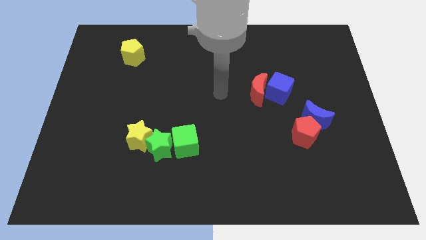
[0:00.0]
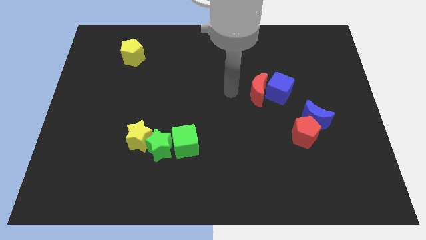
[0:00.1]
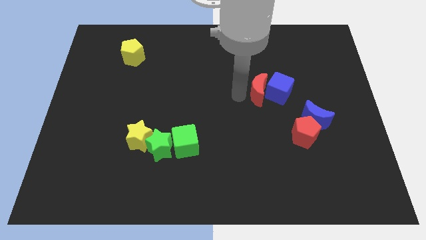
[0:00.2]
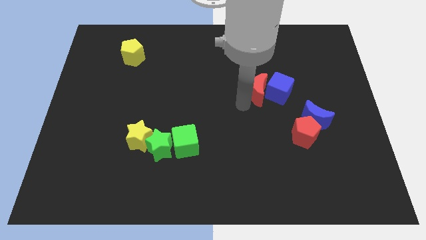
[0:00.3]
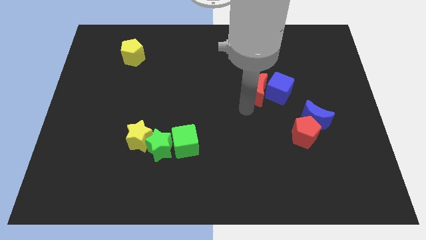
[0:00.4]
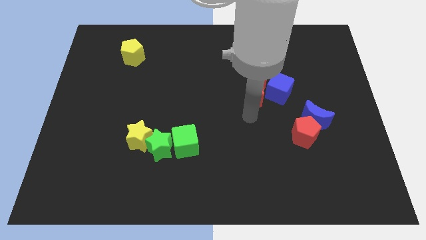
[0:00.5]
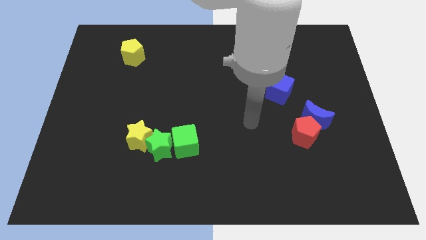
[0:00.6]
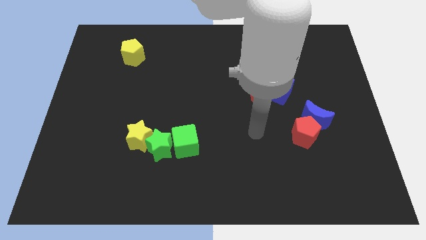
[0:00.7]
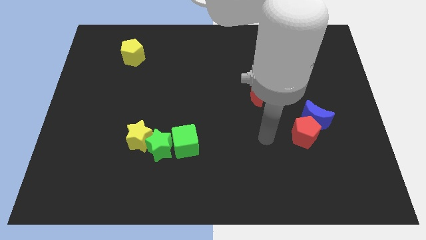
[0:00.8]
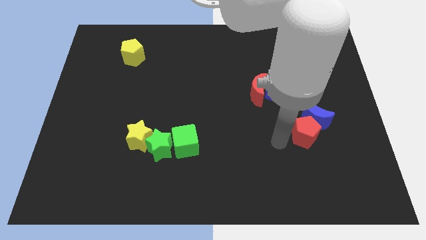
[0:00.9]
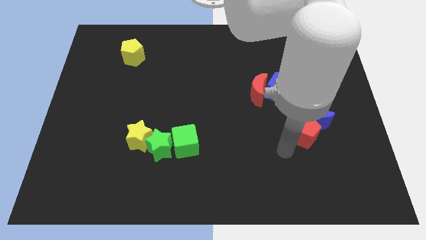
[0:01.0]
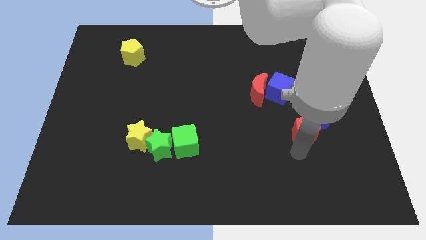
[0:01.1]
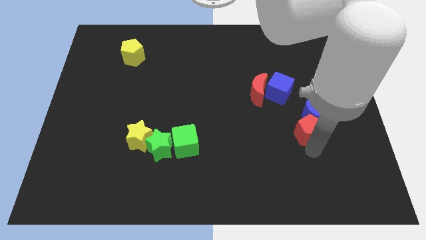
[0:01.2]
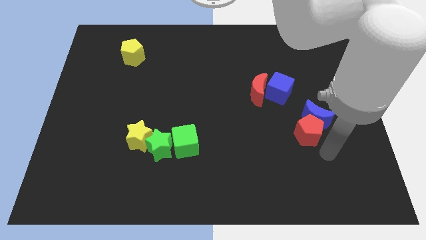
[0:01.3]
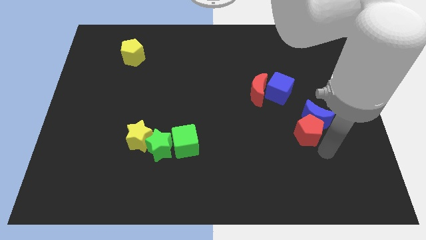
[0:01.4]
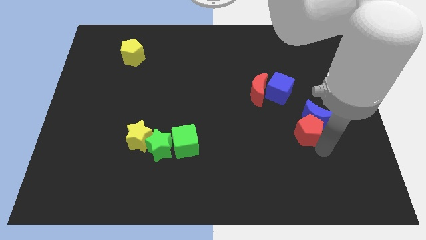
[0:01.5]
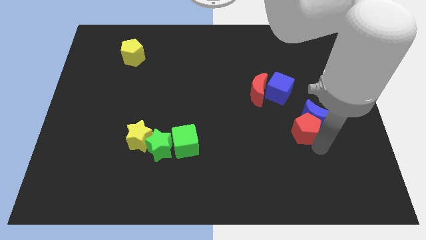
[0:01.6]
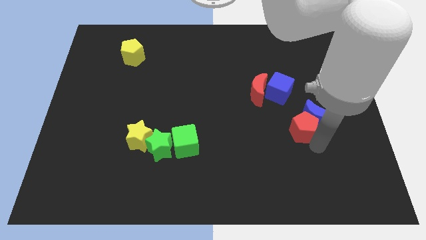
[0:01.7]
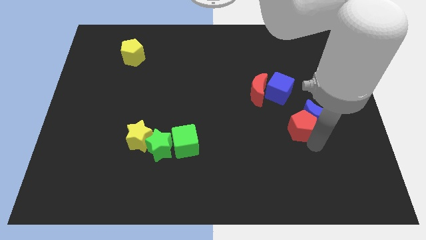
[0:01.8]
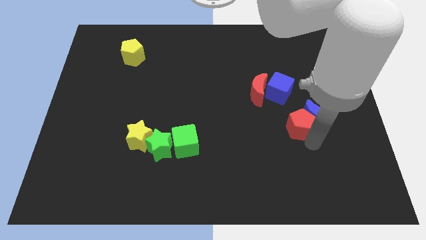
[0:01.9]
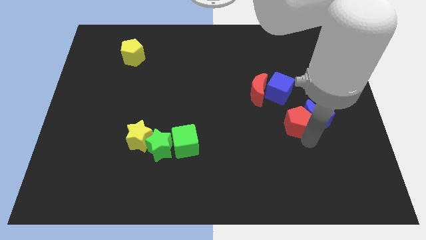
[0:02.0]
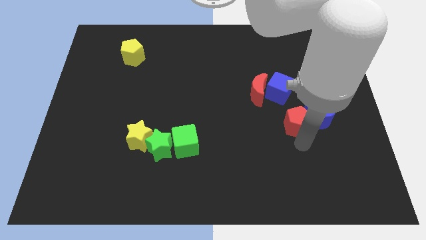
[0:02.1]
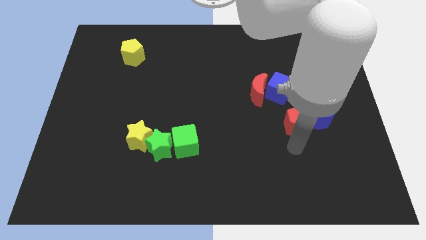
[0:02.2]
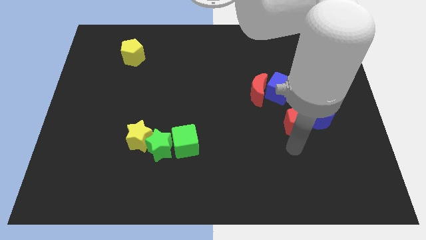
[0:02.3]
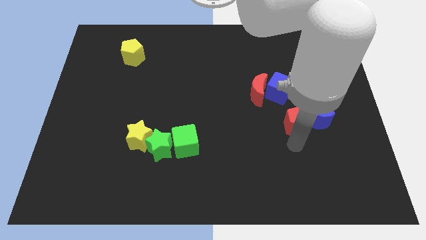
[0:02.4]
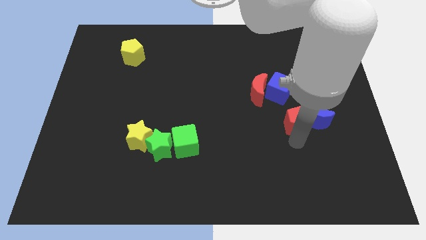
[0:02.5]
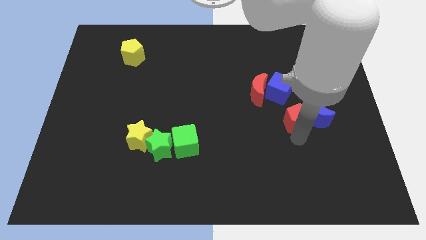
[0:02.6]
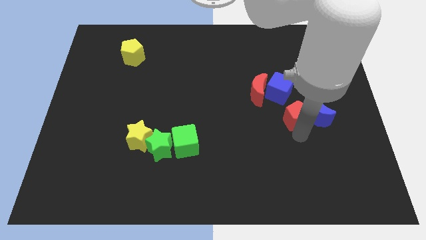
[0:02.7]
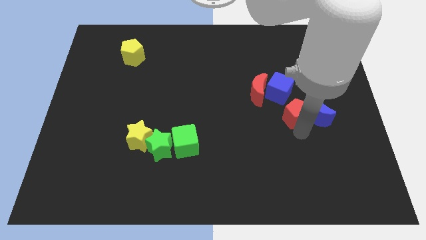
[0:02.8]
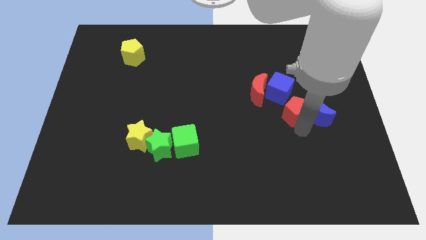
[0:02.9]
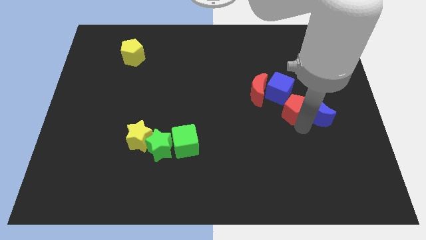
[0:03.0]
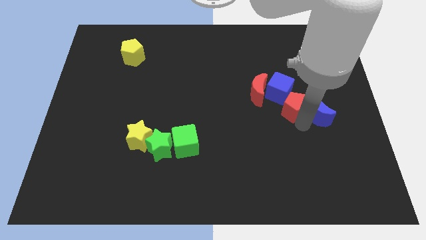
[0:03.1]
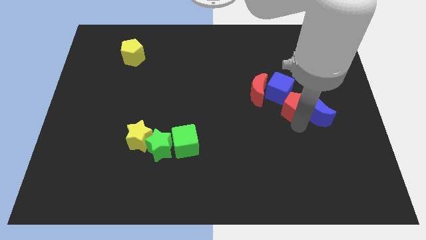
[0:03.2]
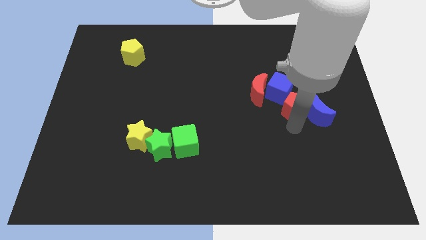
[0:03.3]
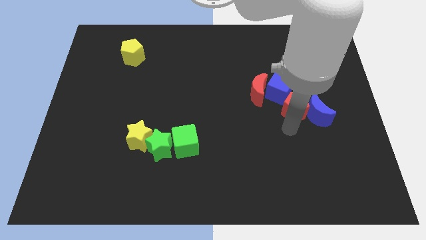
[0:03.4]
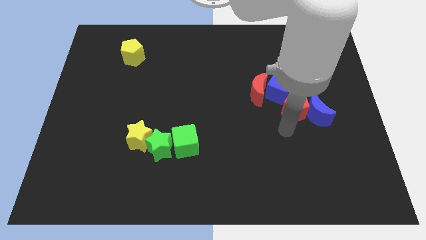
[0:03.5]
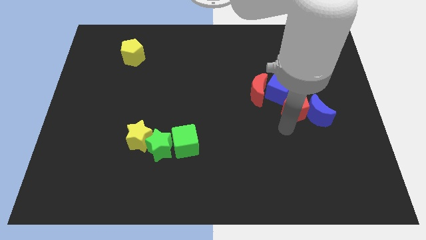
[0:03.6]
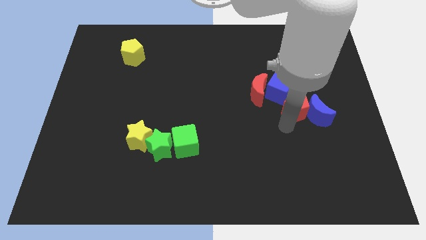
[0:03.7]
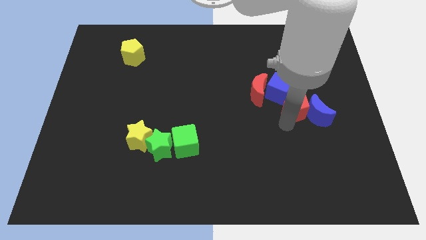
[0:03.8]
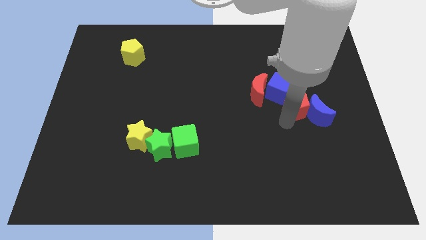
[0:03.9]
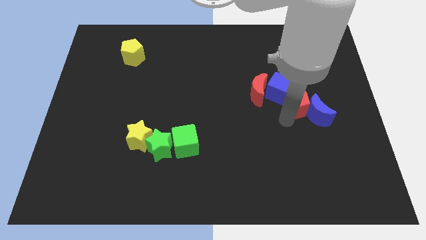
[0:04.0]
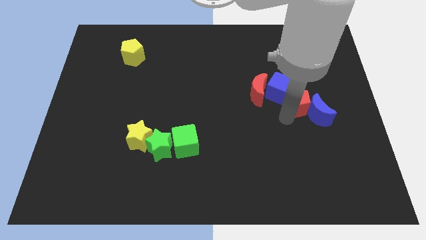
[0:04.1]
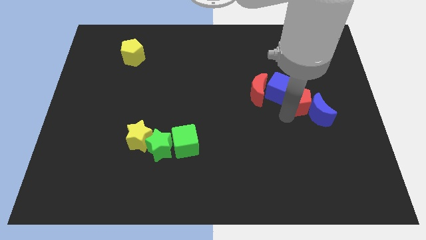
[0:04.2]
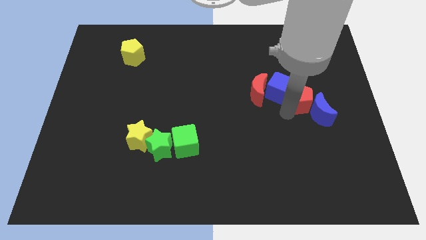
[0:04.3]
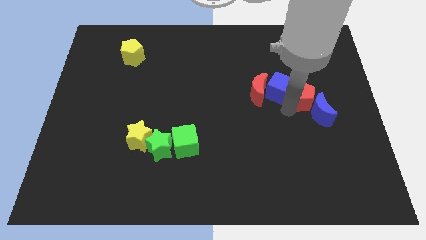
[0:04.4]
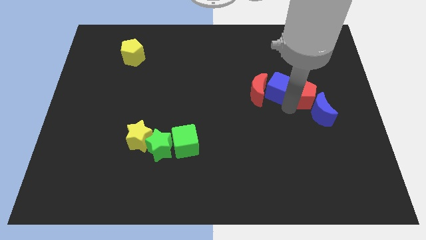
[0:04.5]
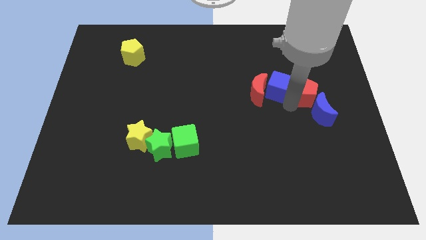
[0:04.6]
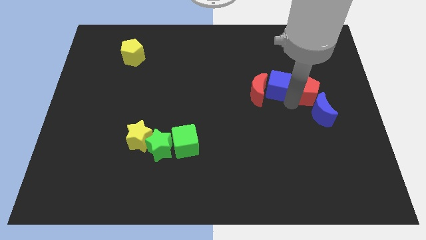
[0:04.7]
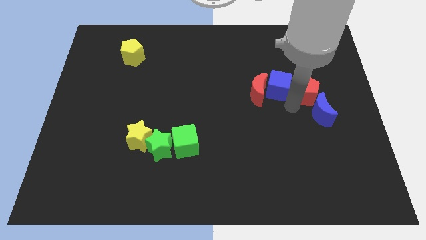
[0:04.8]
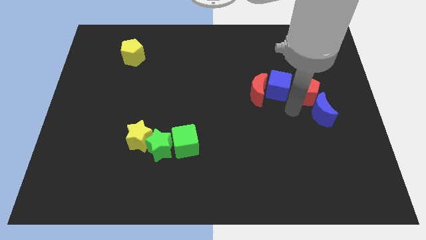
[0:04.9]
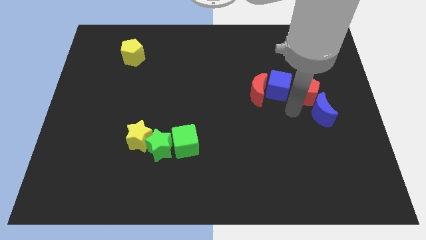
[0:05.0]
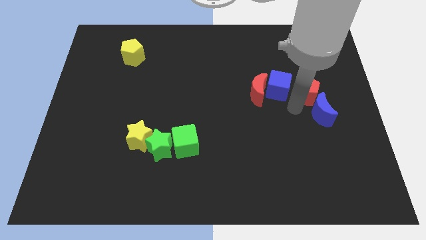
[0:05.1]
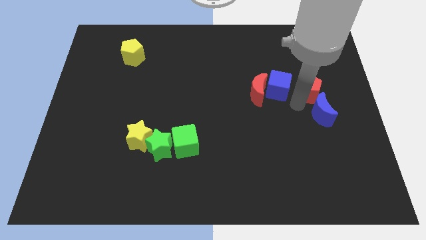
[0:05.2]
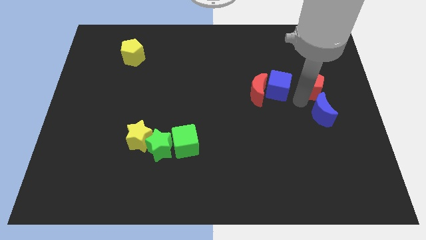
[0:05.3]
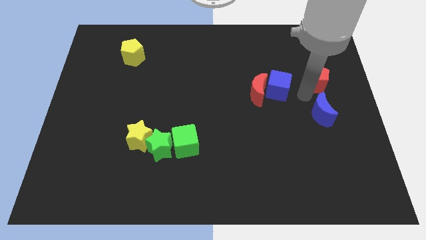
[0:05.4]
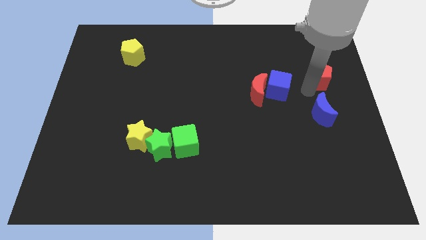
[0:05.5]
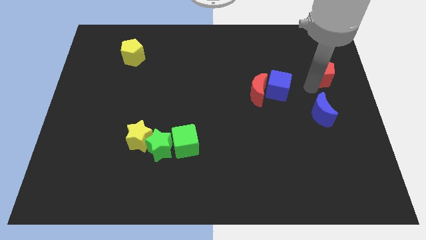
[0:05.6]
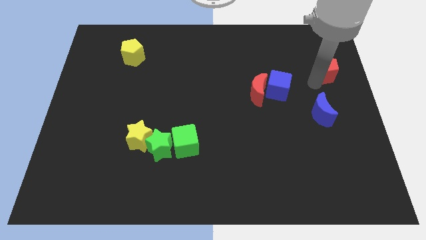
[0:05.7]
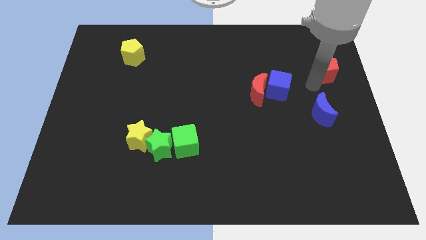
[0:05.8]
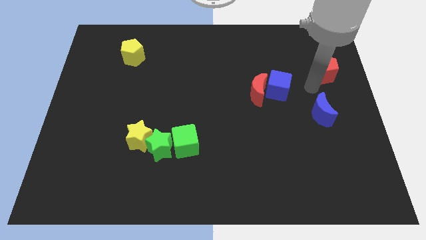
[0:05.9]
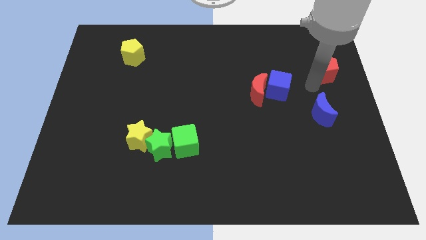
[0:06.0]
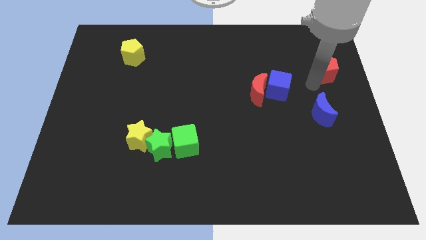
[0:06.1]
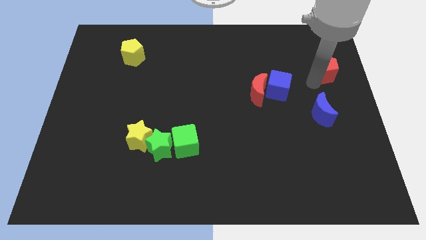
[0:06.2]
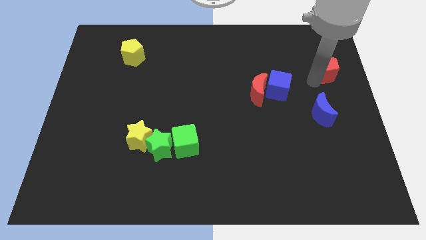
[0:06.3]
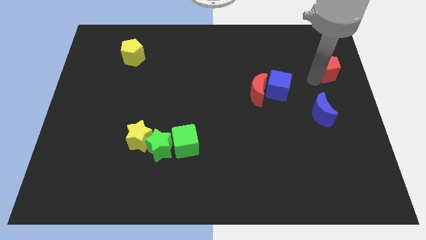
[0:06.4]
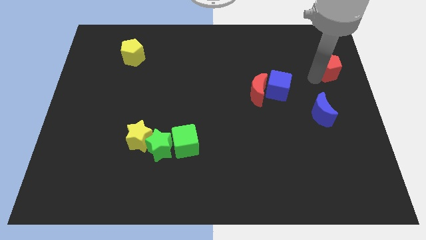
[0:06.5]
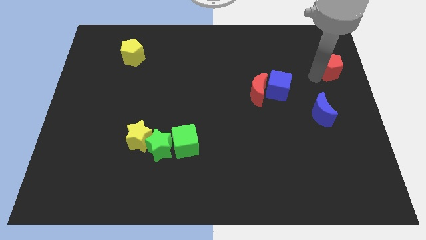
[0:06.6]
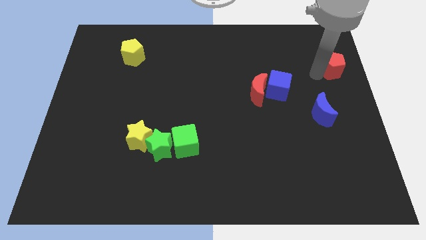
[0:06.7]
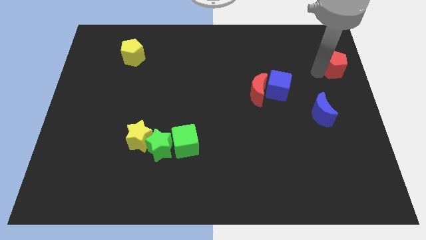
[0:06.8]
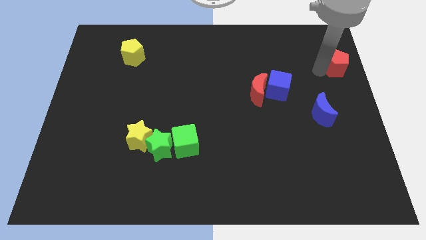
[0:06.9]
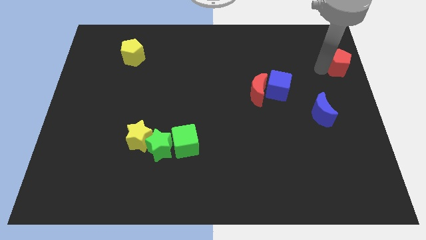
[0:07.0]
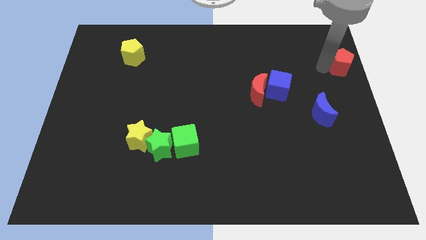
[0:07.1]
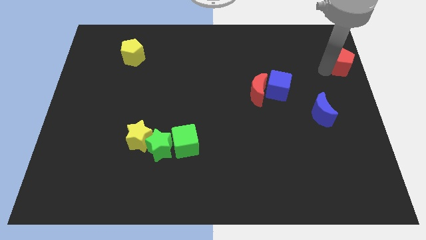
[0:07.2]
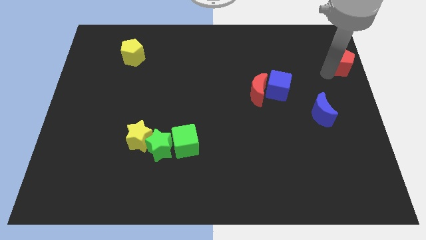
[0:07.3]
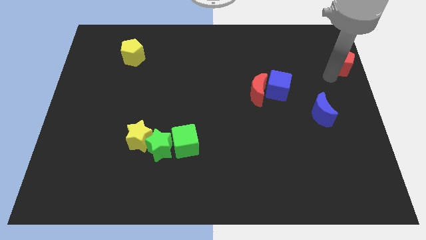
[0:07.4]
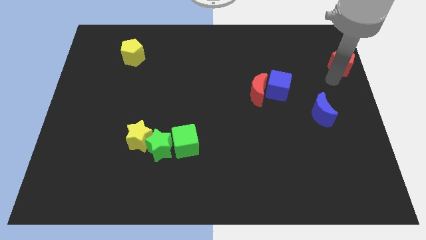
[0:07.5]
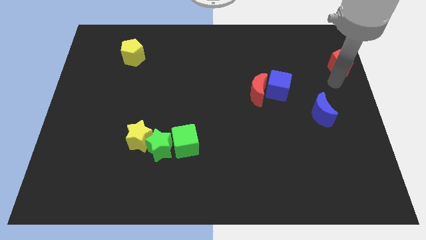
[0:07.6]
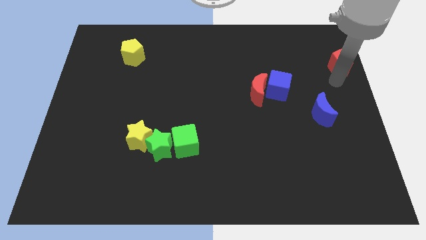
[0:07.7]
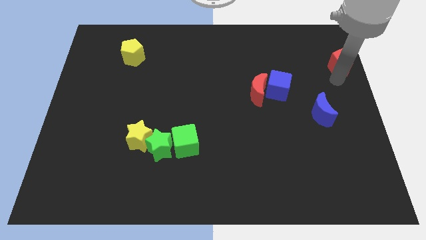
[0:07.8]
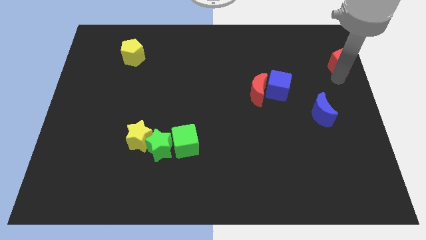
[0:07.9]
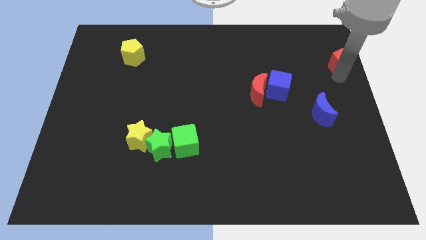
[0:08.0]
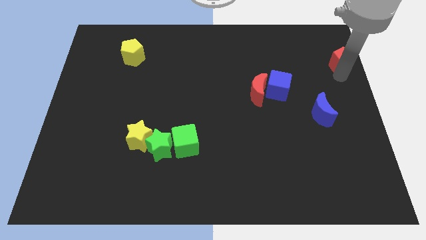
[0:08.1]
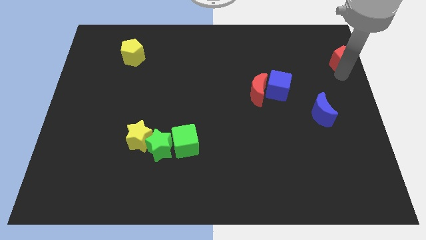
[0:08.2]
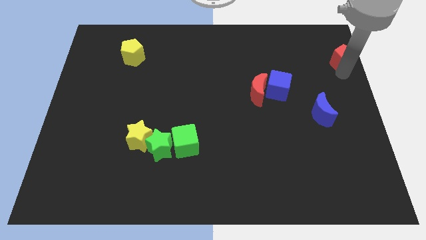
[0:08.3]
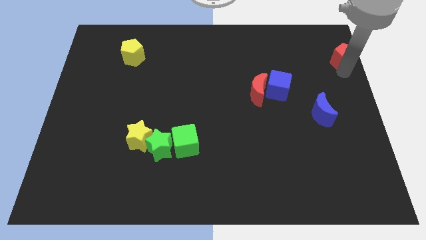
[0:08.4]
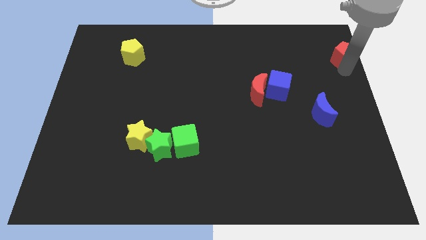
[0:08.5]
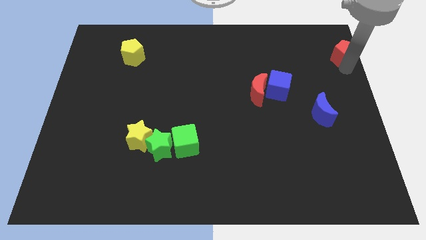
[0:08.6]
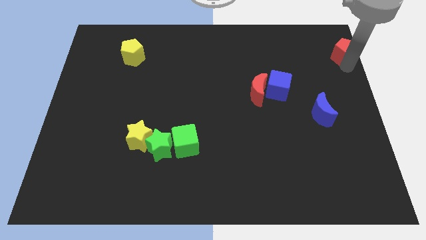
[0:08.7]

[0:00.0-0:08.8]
put the red pentagon to the top right corner
